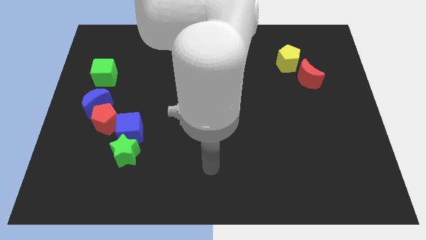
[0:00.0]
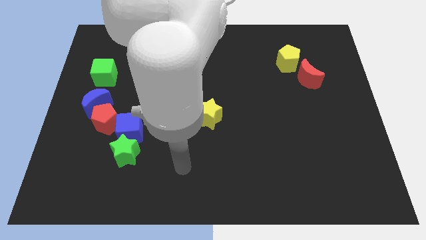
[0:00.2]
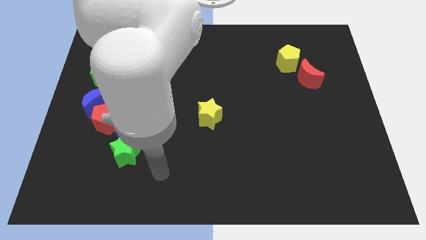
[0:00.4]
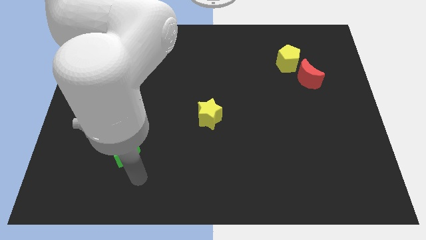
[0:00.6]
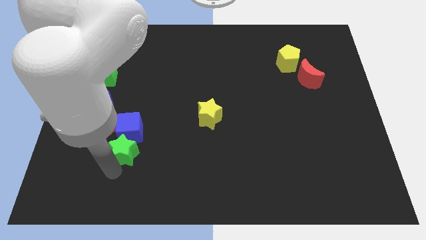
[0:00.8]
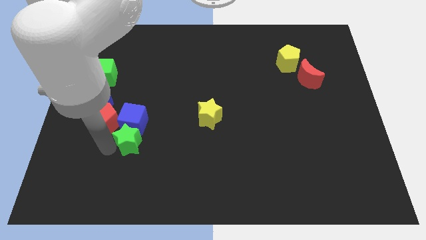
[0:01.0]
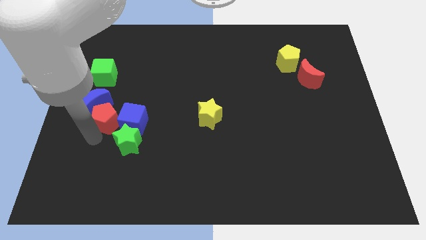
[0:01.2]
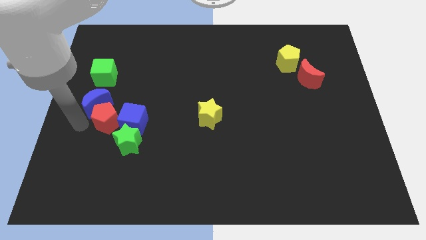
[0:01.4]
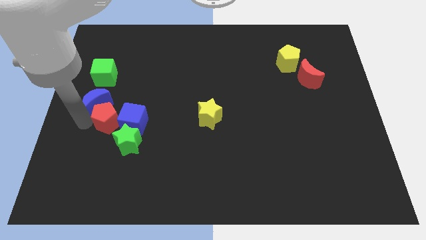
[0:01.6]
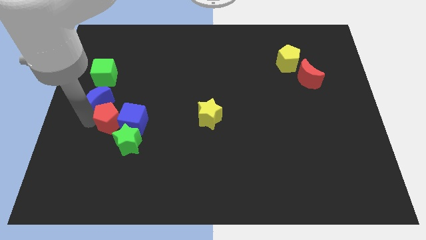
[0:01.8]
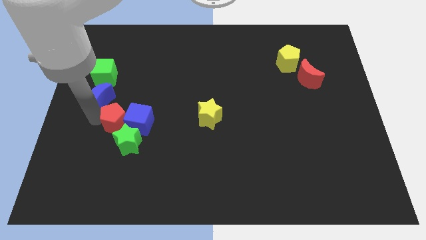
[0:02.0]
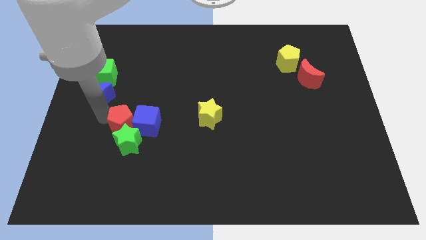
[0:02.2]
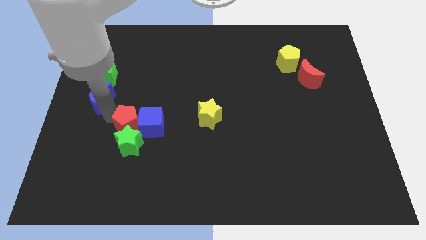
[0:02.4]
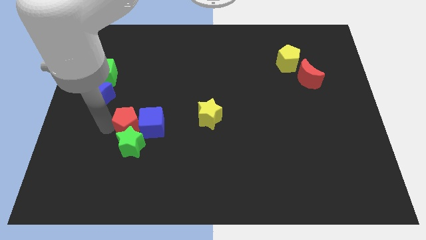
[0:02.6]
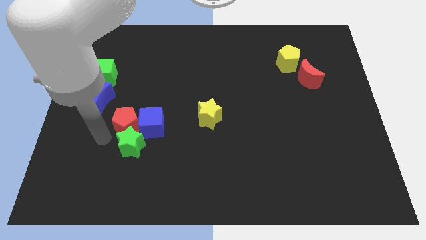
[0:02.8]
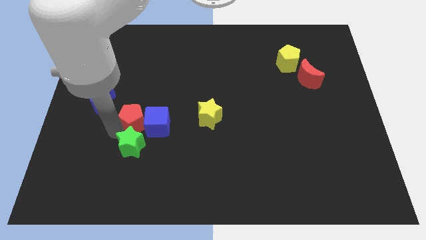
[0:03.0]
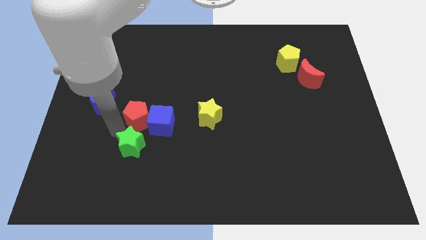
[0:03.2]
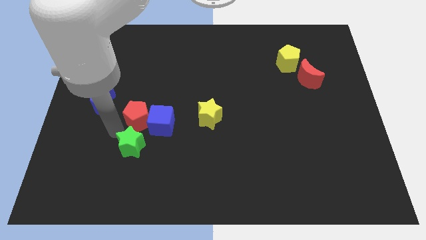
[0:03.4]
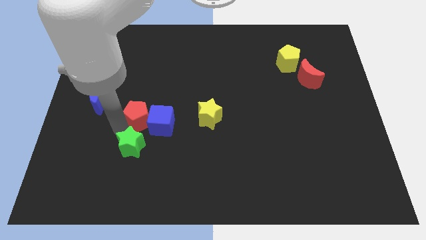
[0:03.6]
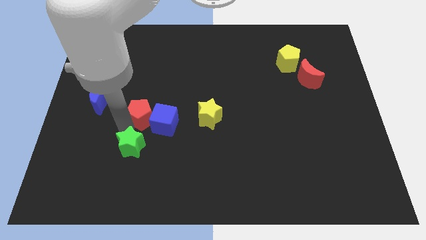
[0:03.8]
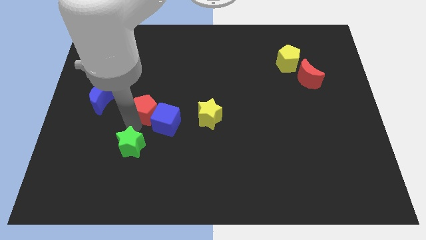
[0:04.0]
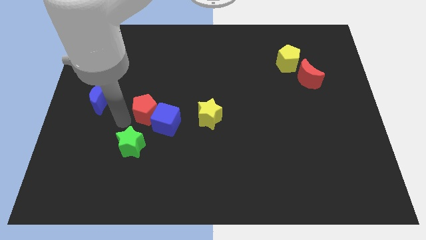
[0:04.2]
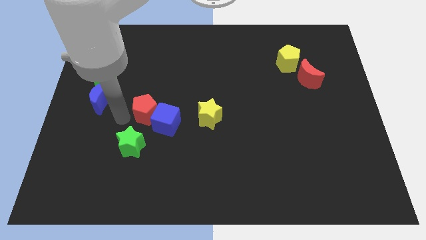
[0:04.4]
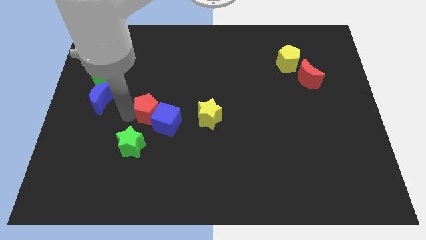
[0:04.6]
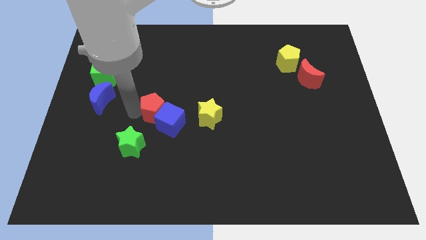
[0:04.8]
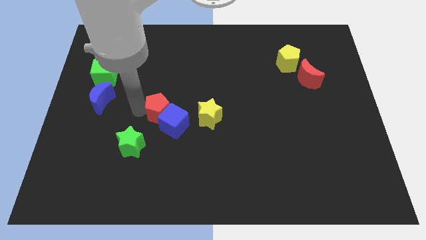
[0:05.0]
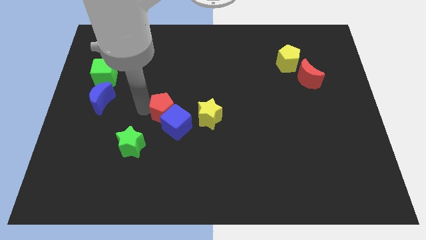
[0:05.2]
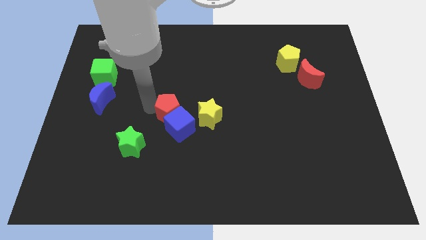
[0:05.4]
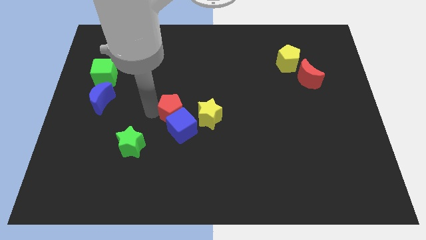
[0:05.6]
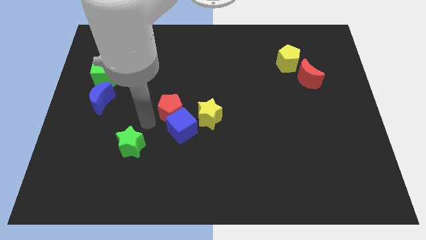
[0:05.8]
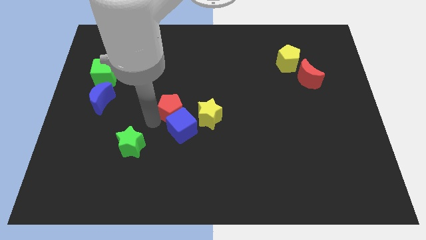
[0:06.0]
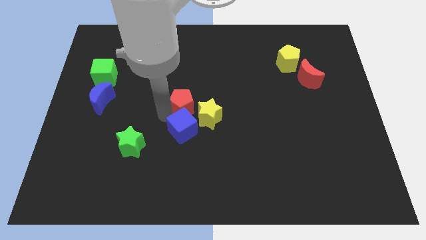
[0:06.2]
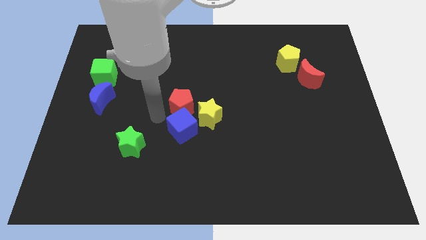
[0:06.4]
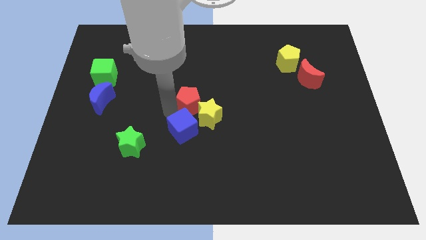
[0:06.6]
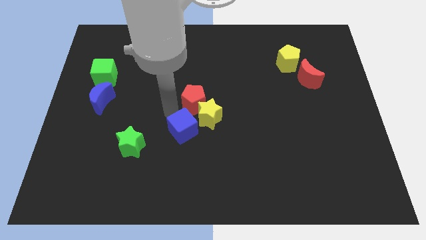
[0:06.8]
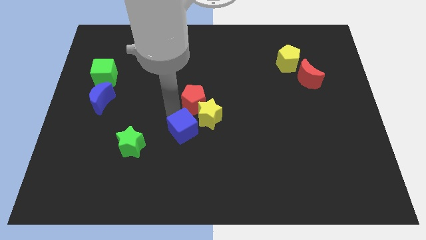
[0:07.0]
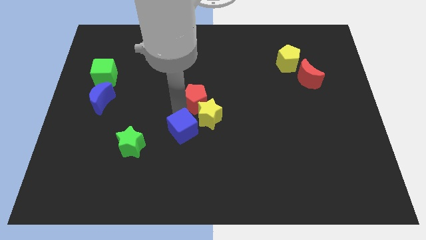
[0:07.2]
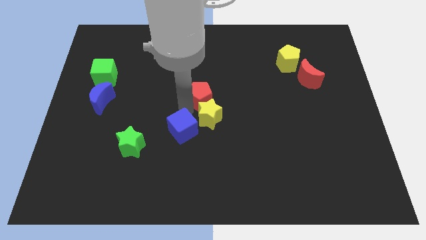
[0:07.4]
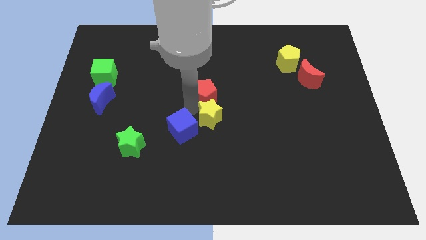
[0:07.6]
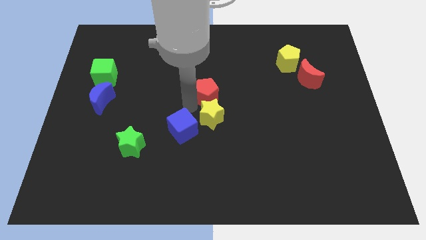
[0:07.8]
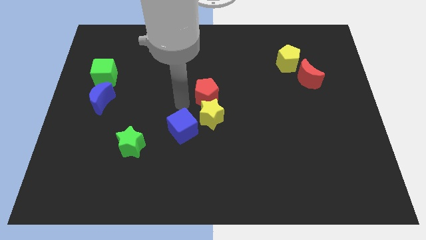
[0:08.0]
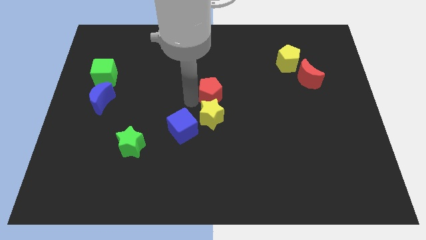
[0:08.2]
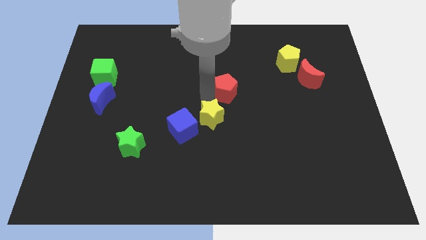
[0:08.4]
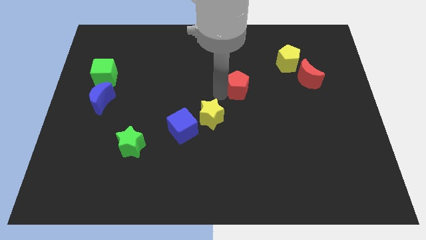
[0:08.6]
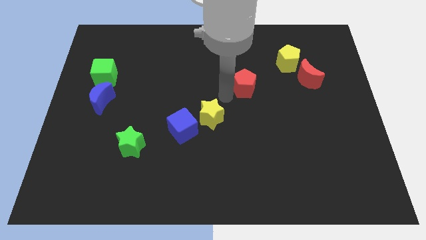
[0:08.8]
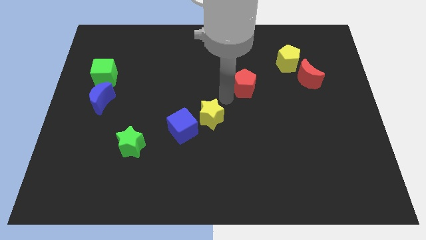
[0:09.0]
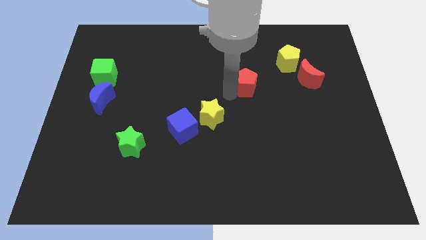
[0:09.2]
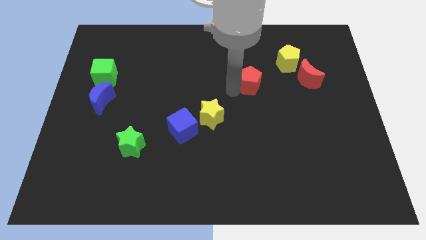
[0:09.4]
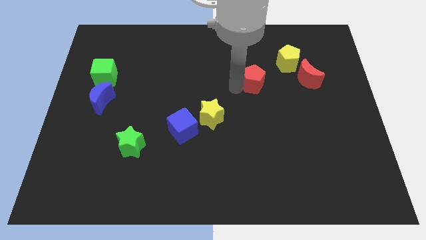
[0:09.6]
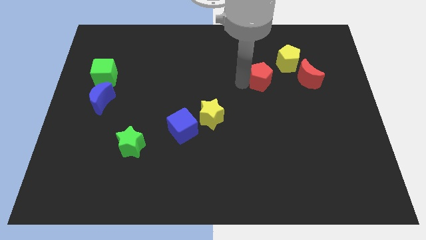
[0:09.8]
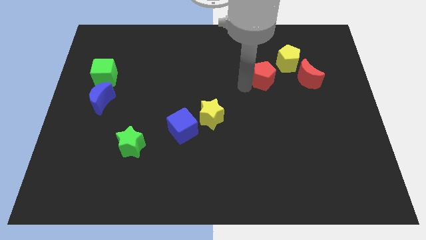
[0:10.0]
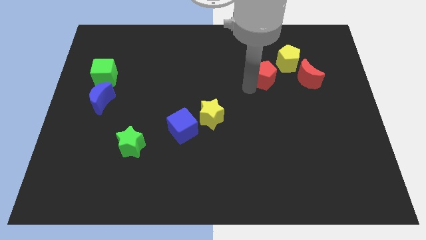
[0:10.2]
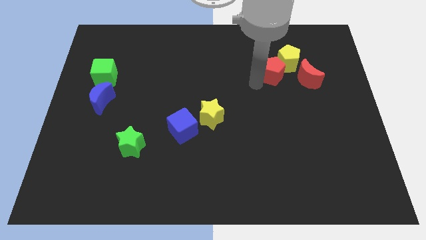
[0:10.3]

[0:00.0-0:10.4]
put the red pentagon close to the yellow pentagon

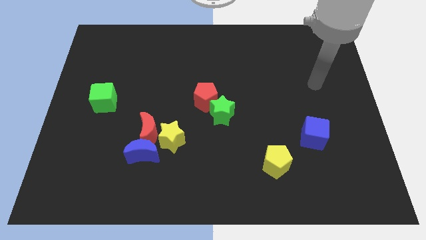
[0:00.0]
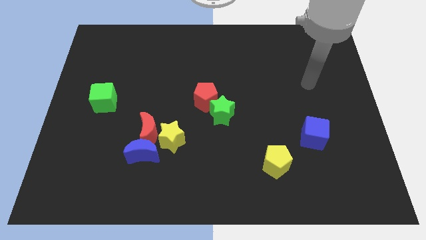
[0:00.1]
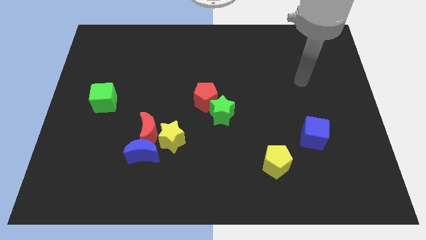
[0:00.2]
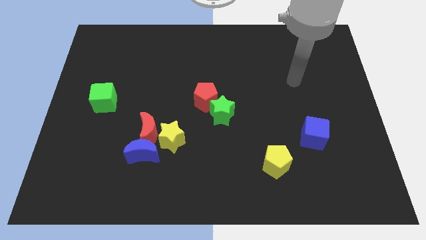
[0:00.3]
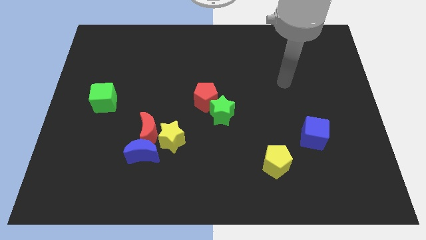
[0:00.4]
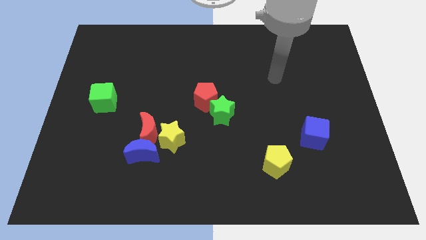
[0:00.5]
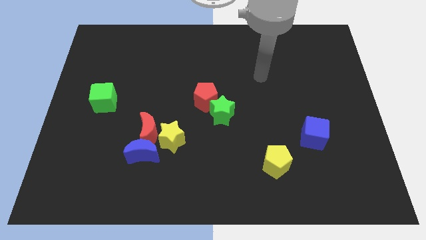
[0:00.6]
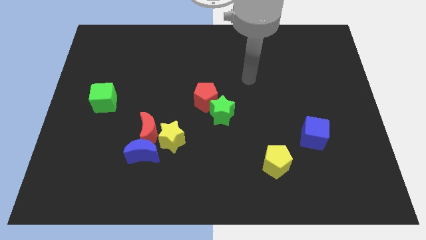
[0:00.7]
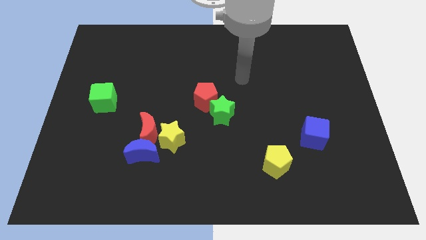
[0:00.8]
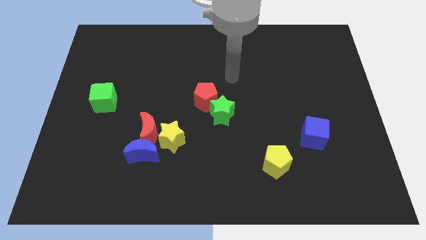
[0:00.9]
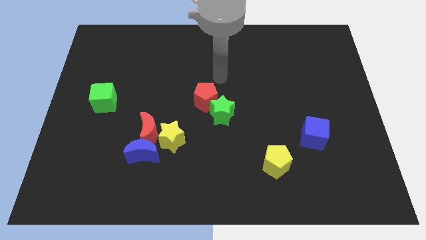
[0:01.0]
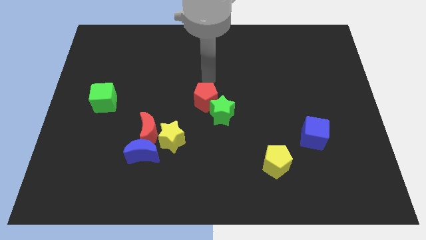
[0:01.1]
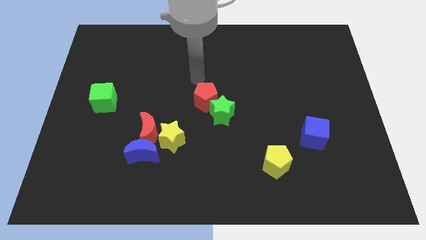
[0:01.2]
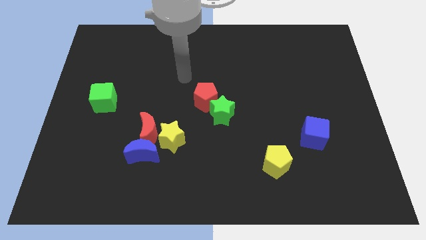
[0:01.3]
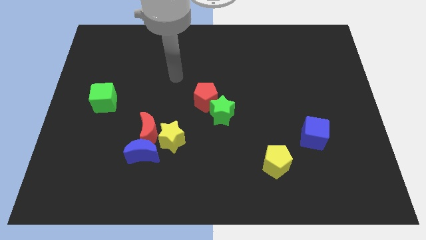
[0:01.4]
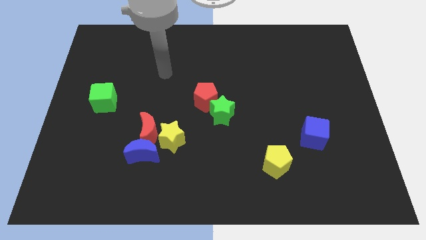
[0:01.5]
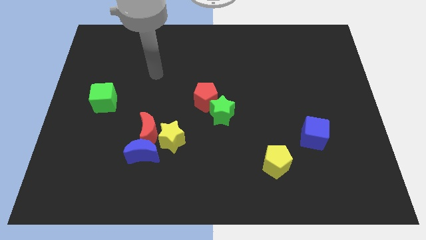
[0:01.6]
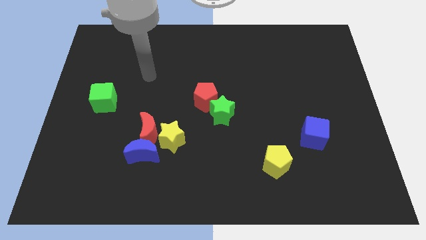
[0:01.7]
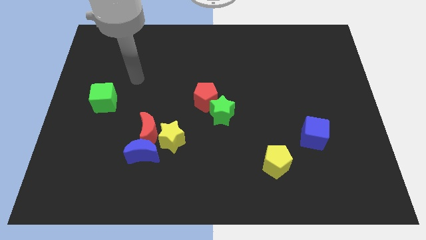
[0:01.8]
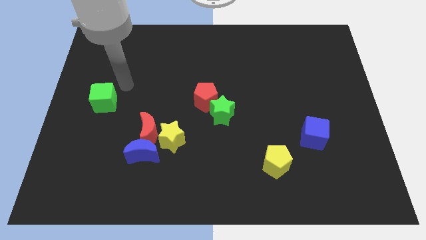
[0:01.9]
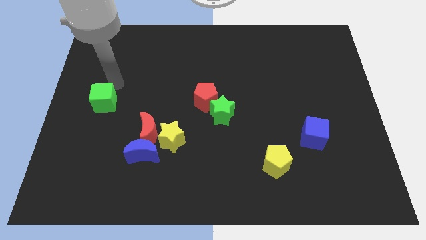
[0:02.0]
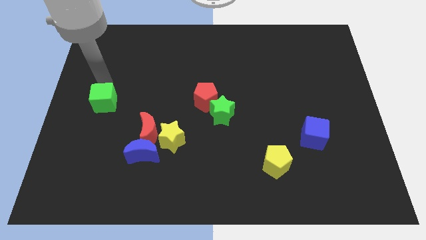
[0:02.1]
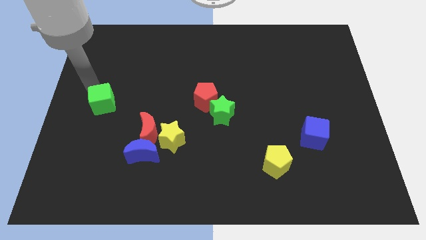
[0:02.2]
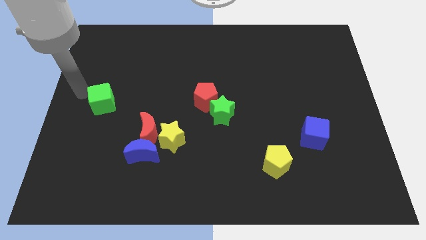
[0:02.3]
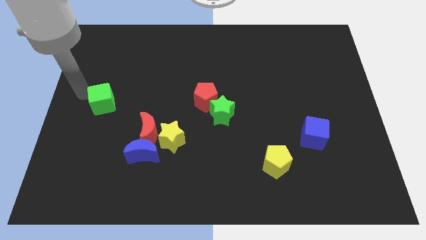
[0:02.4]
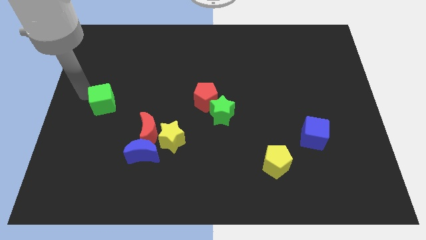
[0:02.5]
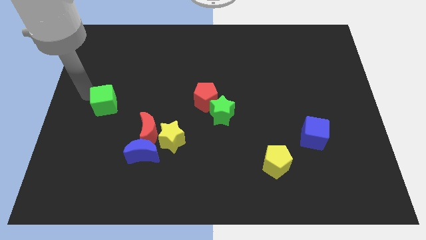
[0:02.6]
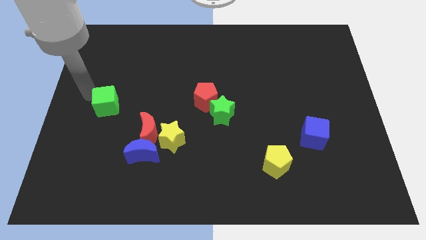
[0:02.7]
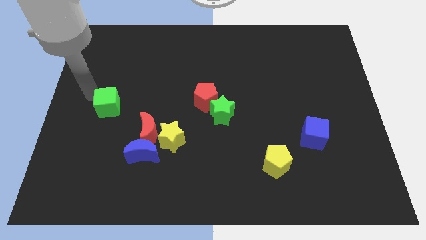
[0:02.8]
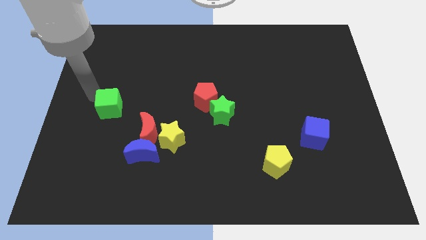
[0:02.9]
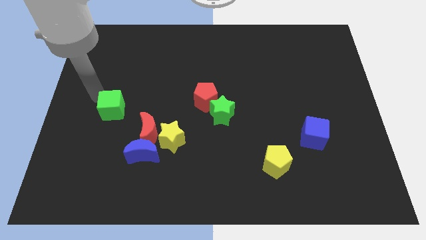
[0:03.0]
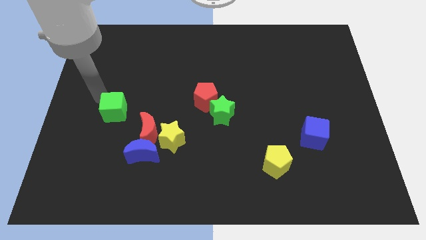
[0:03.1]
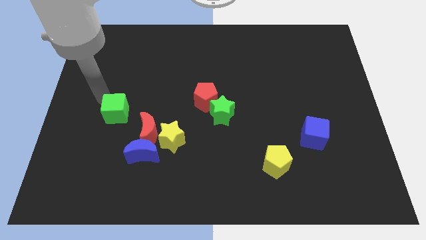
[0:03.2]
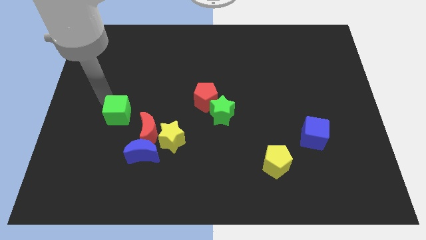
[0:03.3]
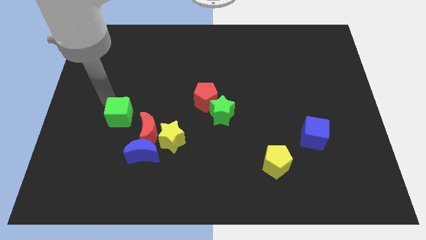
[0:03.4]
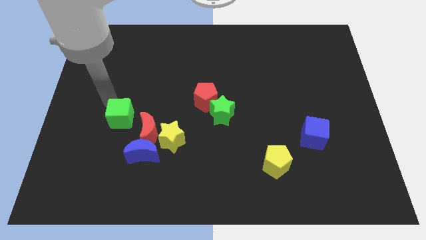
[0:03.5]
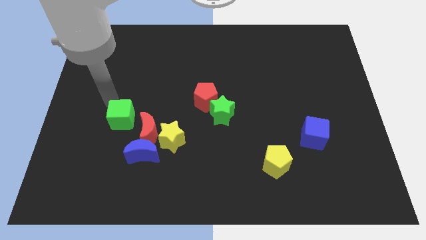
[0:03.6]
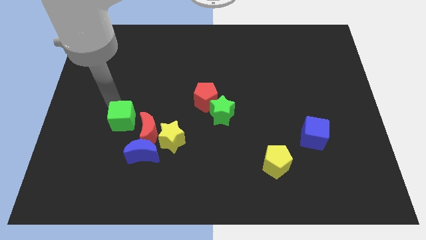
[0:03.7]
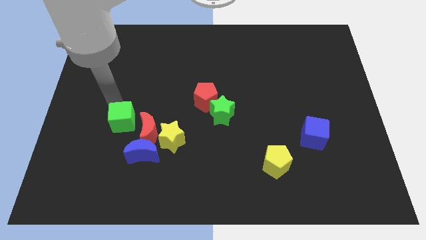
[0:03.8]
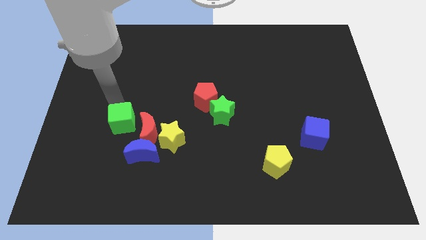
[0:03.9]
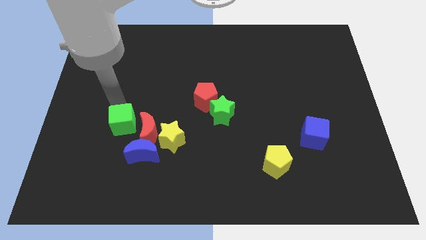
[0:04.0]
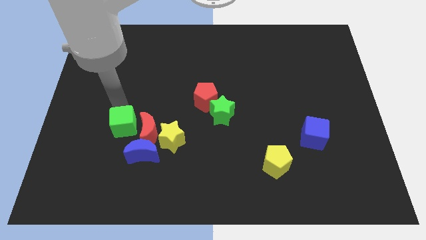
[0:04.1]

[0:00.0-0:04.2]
push the green cube close to the red moon
